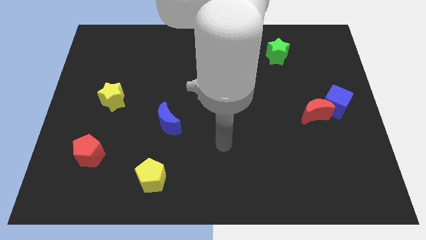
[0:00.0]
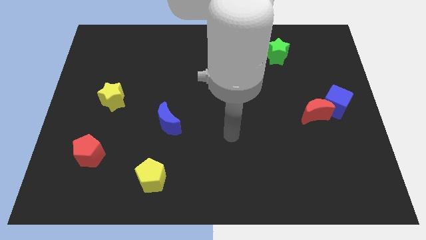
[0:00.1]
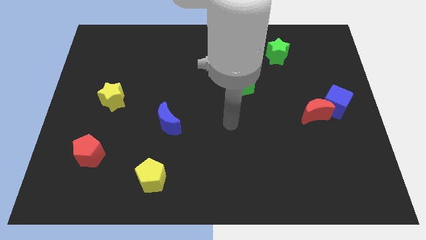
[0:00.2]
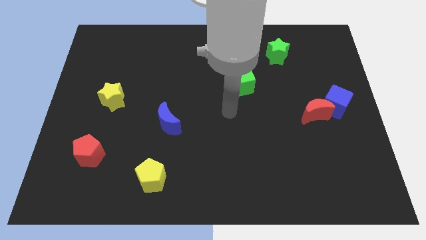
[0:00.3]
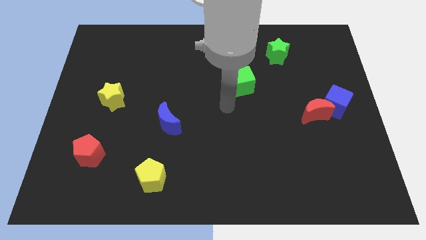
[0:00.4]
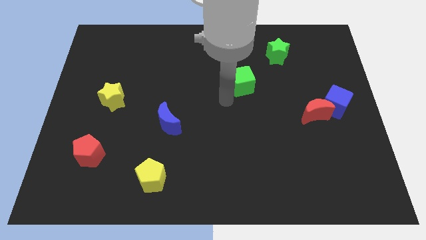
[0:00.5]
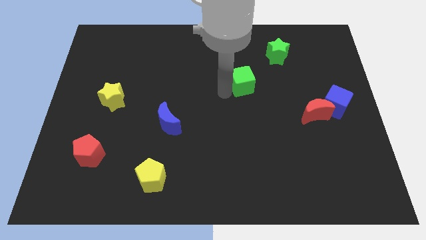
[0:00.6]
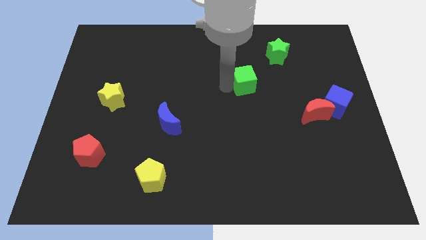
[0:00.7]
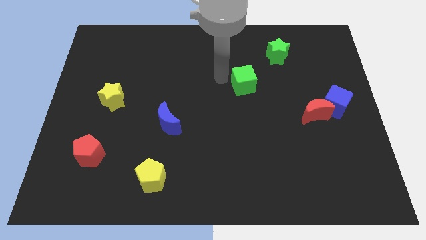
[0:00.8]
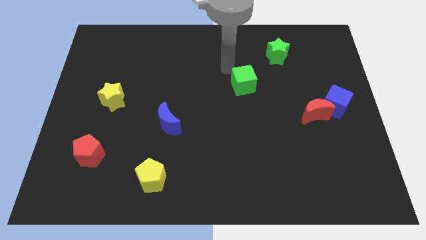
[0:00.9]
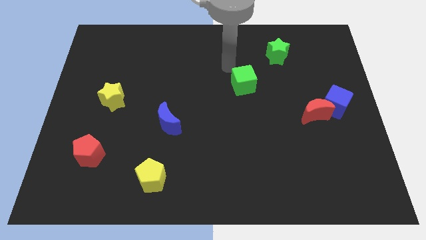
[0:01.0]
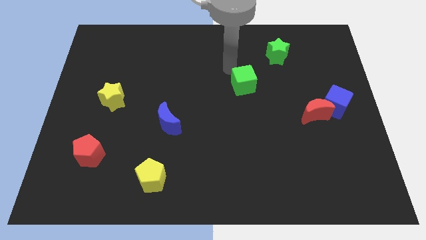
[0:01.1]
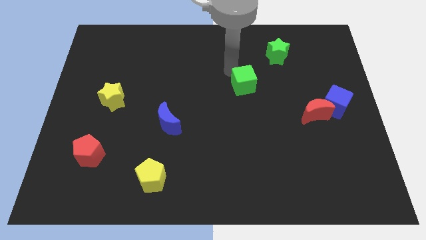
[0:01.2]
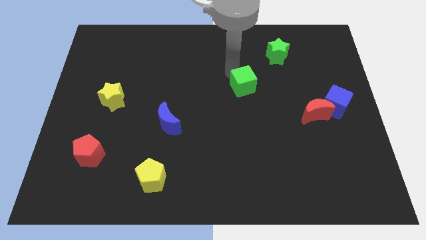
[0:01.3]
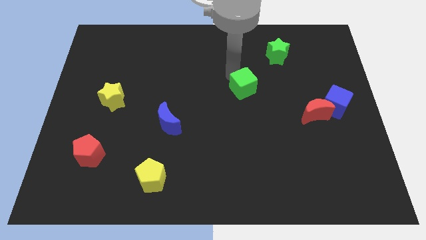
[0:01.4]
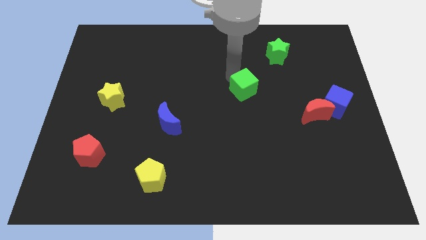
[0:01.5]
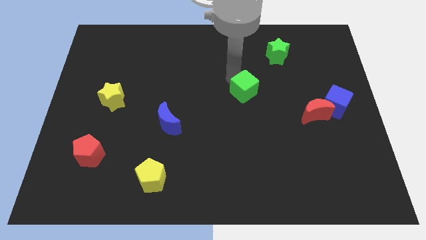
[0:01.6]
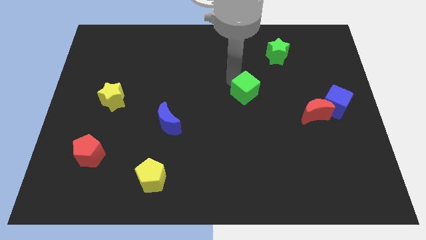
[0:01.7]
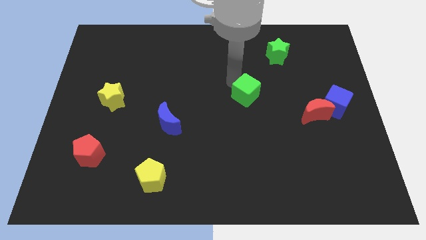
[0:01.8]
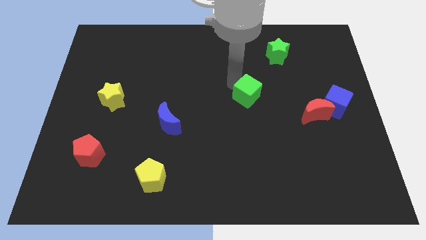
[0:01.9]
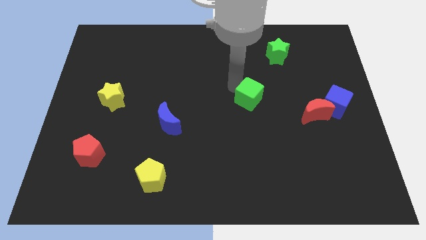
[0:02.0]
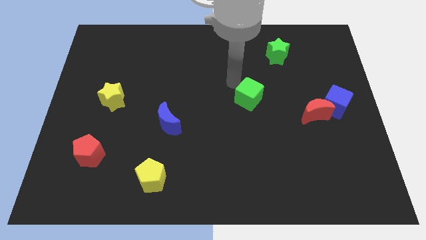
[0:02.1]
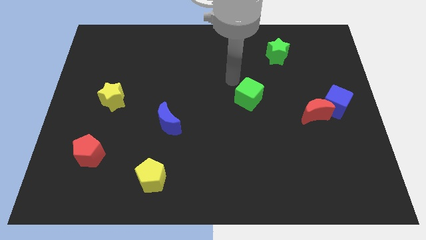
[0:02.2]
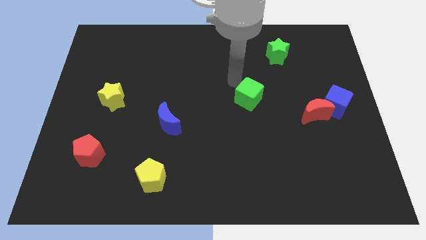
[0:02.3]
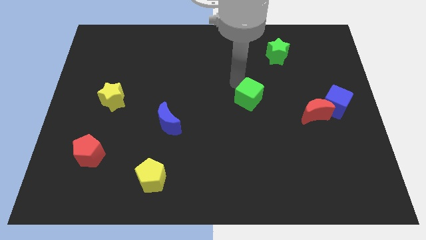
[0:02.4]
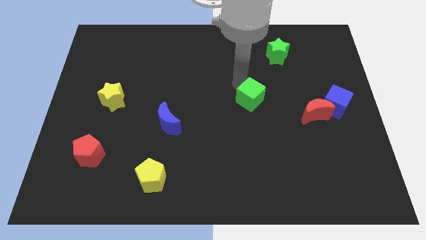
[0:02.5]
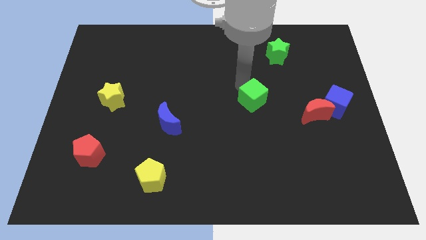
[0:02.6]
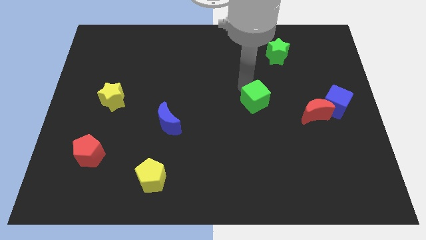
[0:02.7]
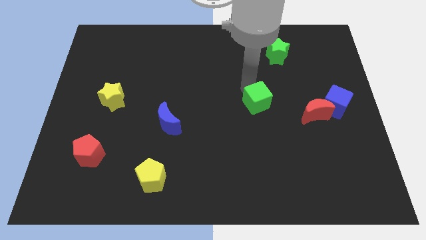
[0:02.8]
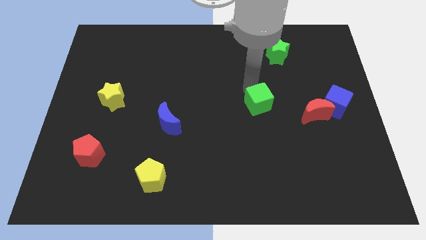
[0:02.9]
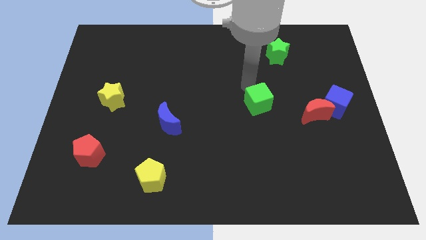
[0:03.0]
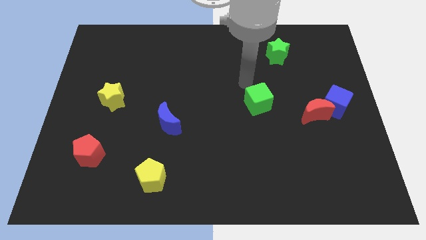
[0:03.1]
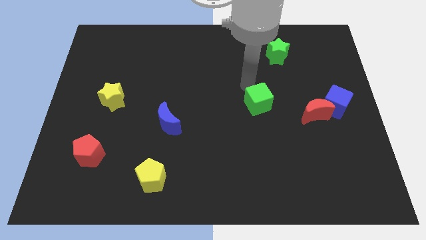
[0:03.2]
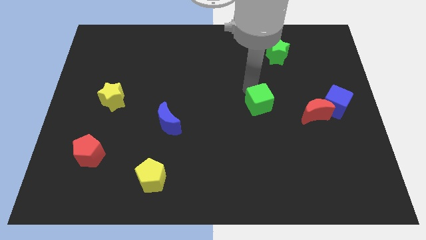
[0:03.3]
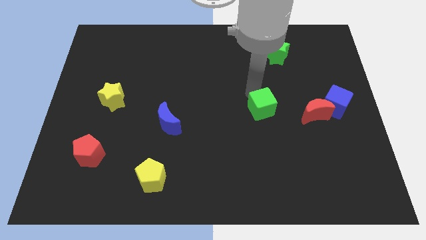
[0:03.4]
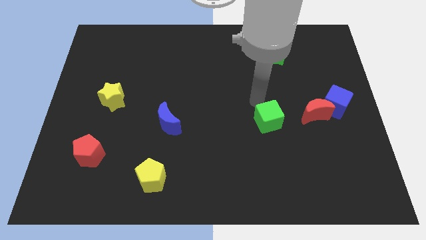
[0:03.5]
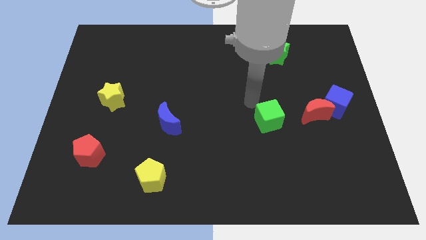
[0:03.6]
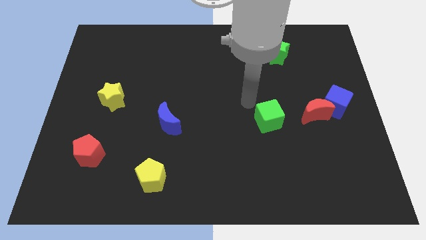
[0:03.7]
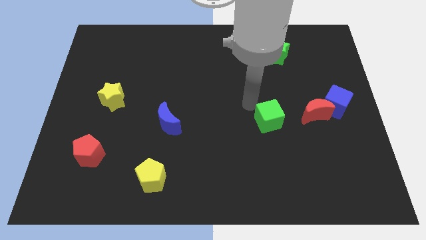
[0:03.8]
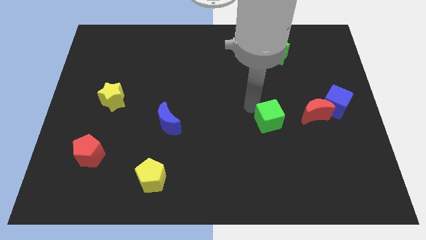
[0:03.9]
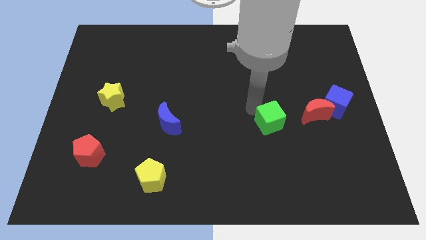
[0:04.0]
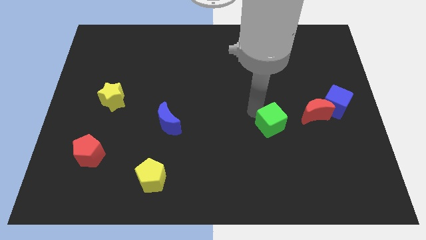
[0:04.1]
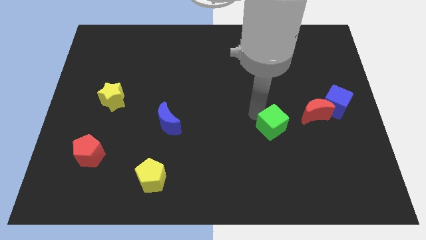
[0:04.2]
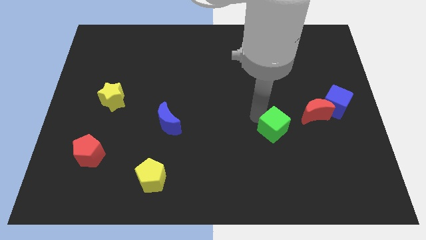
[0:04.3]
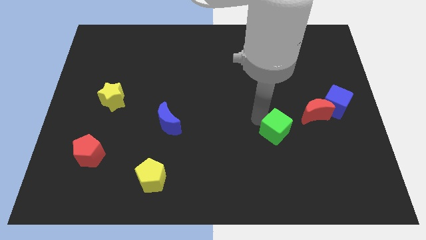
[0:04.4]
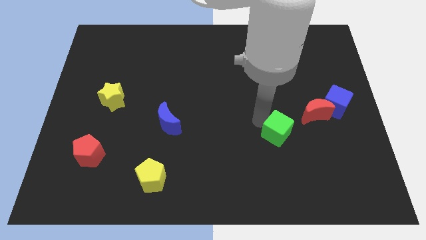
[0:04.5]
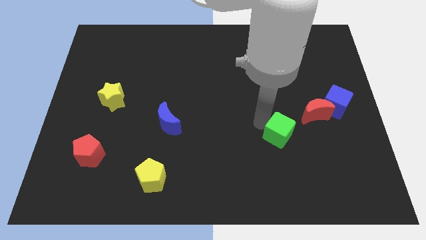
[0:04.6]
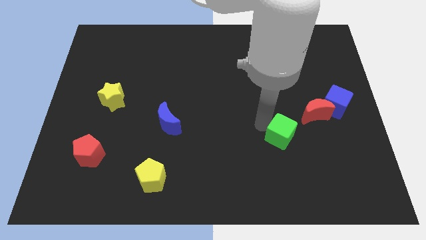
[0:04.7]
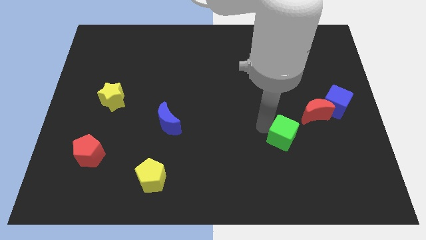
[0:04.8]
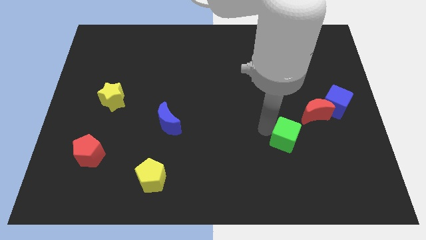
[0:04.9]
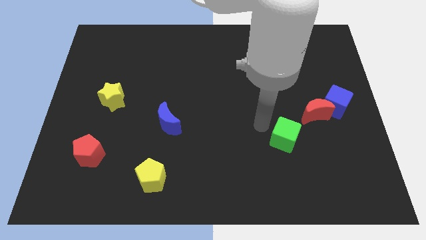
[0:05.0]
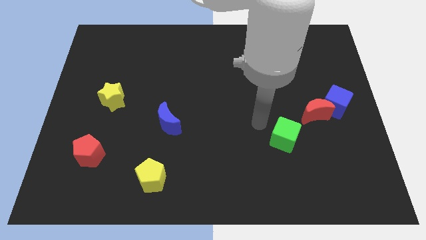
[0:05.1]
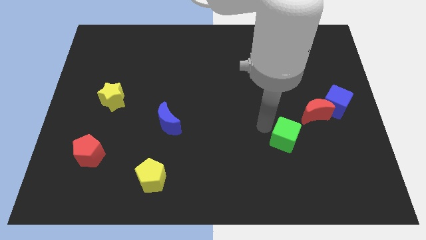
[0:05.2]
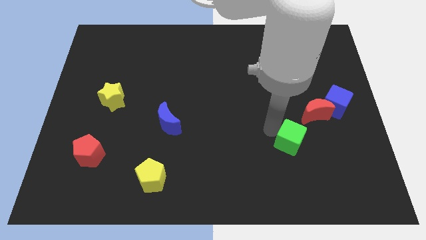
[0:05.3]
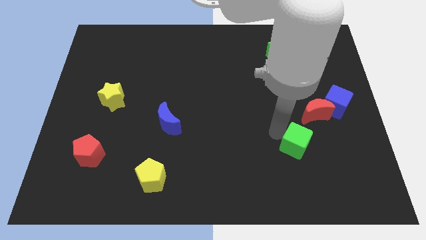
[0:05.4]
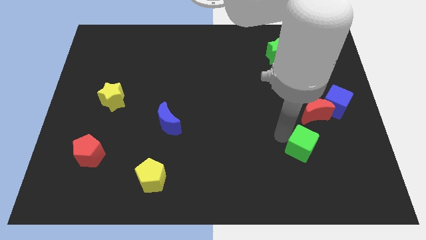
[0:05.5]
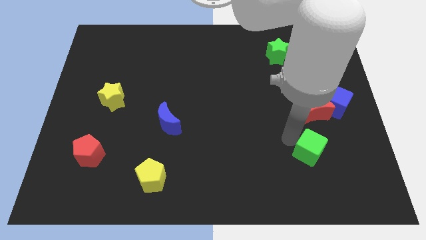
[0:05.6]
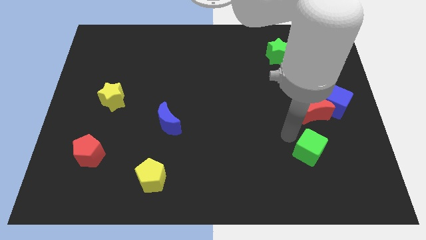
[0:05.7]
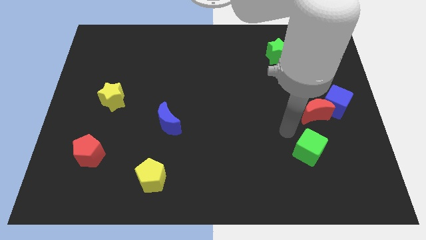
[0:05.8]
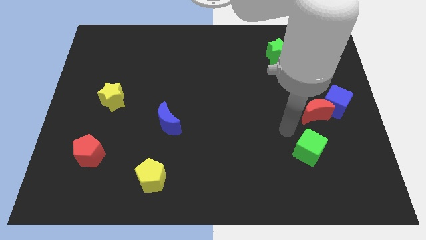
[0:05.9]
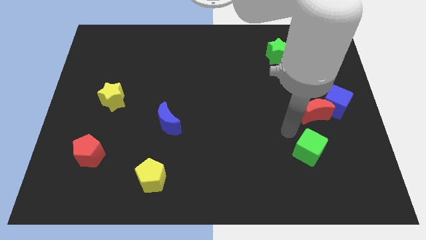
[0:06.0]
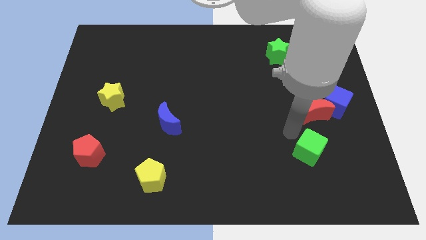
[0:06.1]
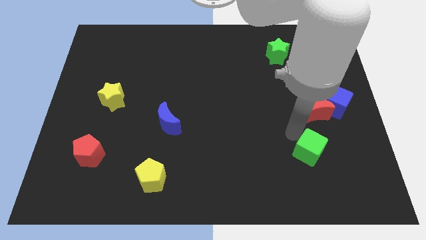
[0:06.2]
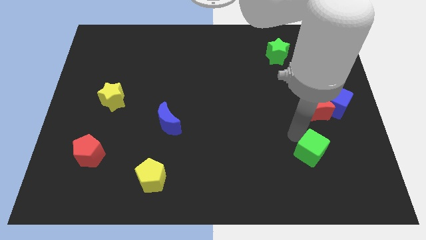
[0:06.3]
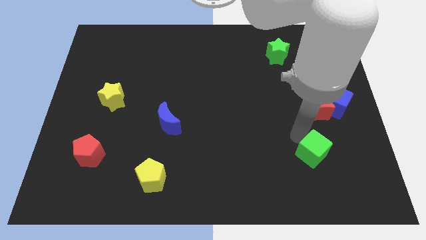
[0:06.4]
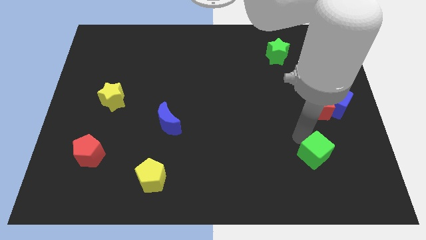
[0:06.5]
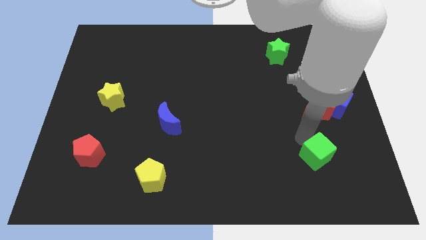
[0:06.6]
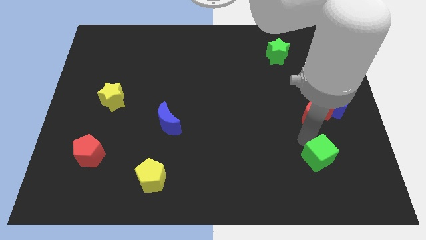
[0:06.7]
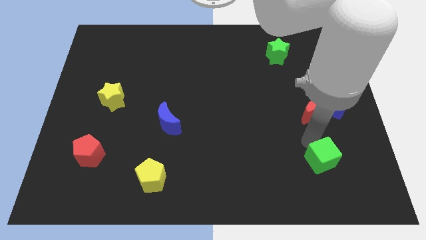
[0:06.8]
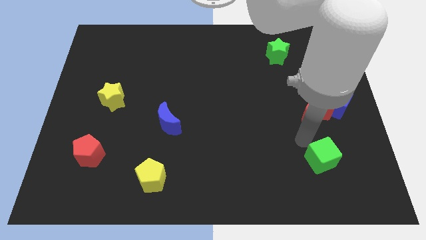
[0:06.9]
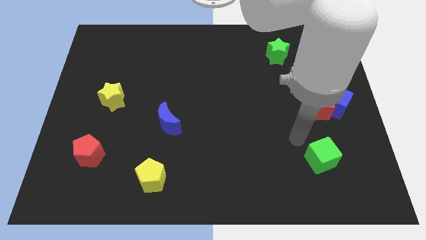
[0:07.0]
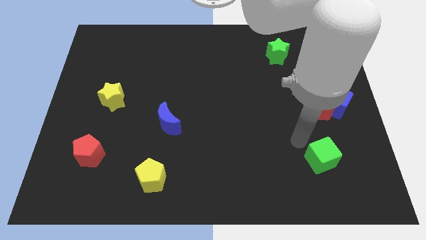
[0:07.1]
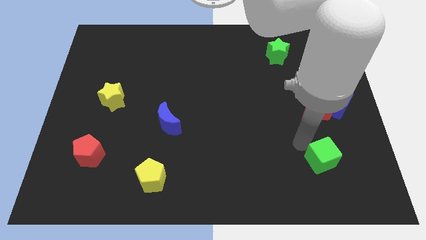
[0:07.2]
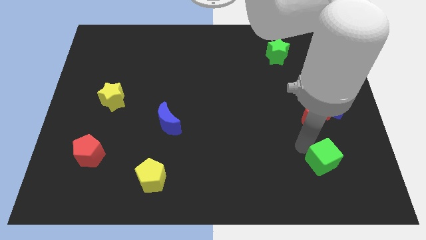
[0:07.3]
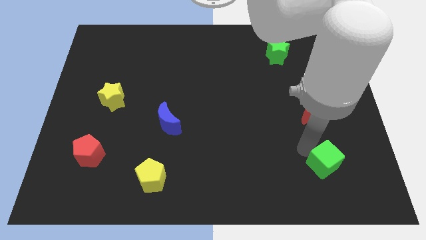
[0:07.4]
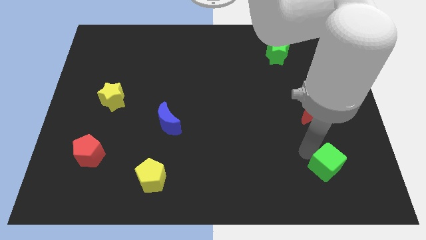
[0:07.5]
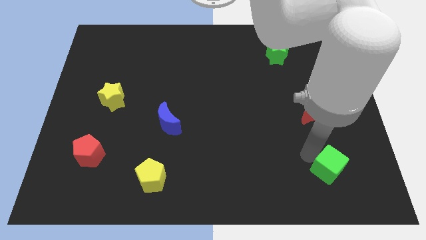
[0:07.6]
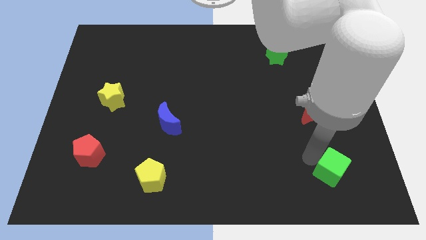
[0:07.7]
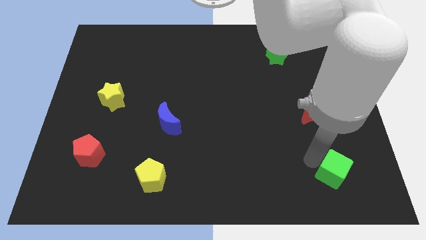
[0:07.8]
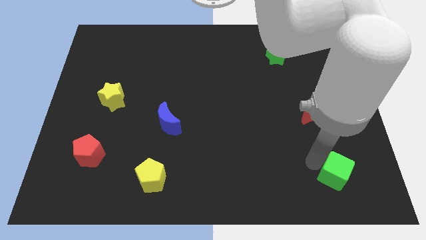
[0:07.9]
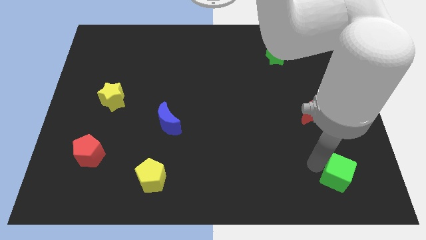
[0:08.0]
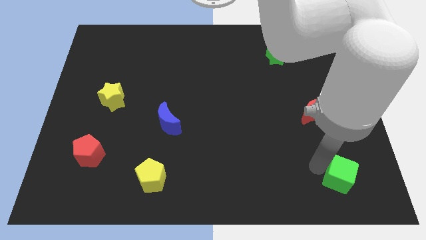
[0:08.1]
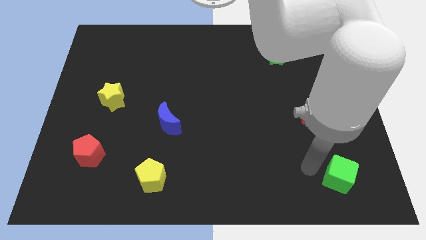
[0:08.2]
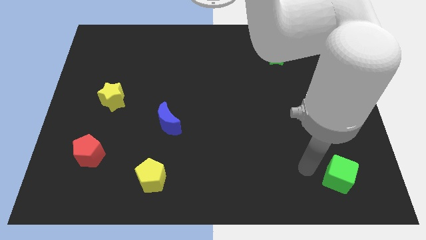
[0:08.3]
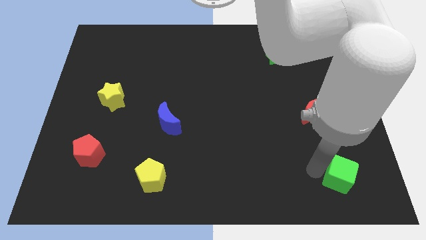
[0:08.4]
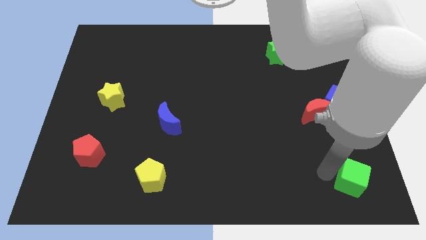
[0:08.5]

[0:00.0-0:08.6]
move the green cube to the bottom right
